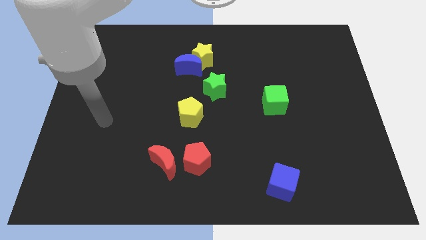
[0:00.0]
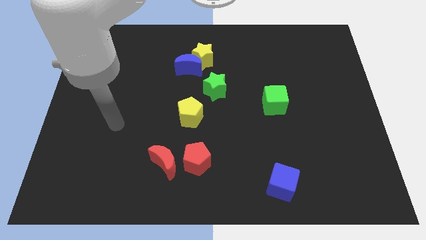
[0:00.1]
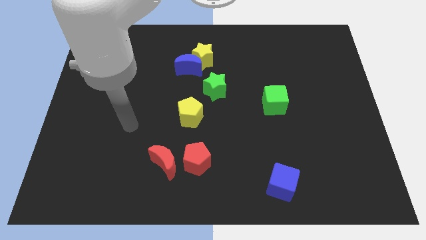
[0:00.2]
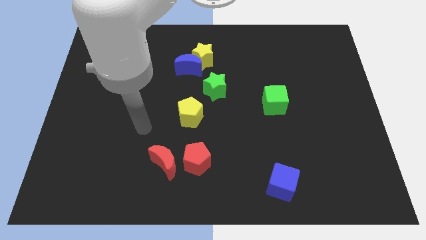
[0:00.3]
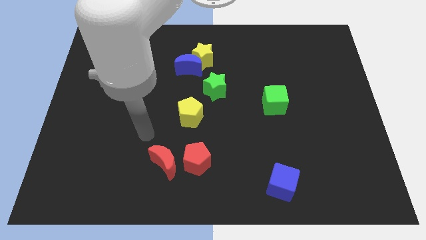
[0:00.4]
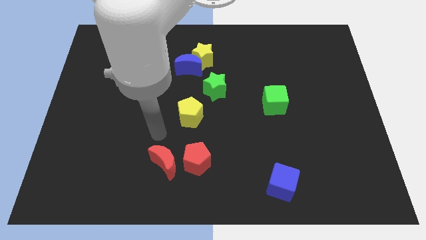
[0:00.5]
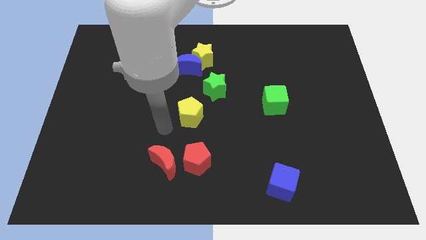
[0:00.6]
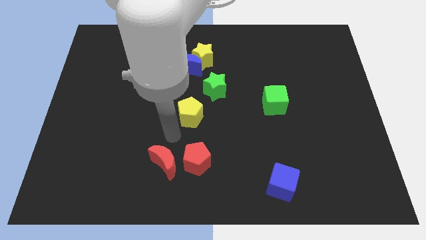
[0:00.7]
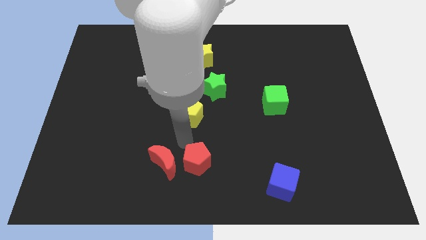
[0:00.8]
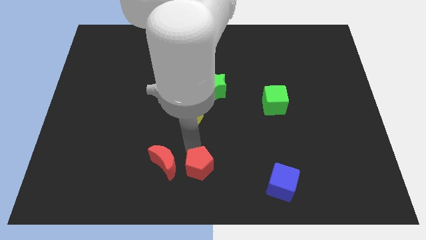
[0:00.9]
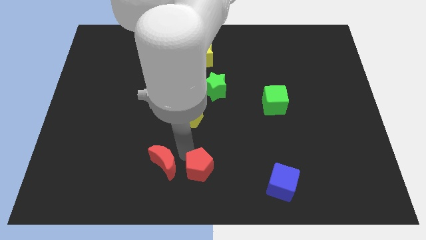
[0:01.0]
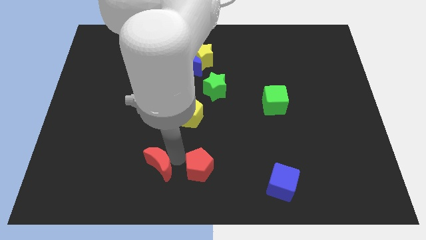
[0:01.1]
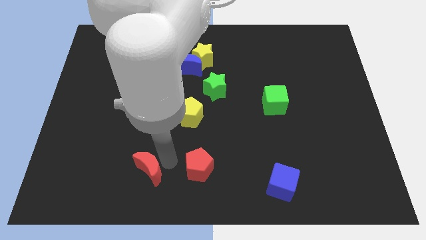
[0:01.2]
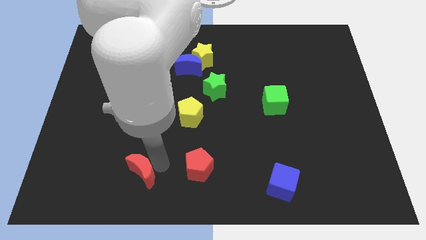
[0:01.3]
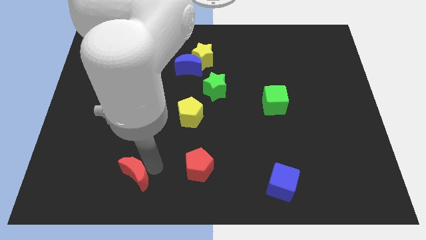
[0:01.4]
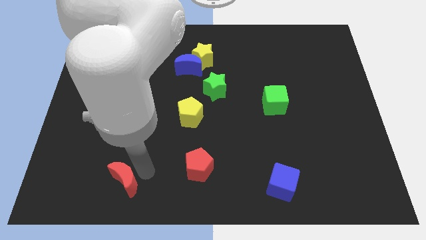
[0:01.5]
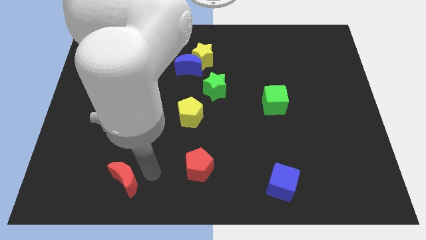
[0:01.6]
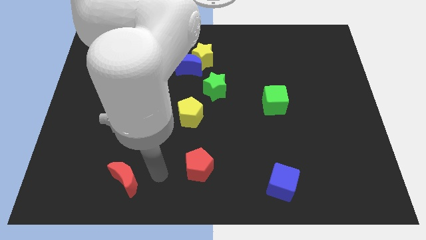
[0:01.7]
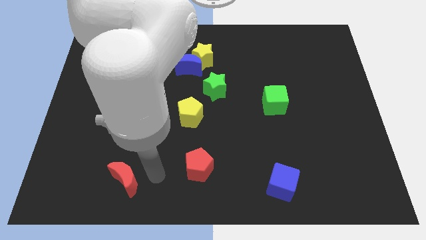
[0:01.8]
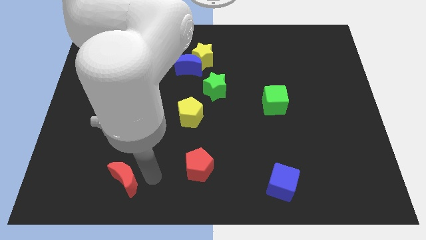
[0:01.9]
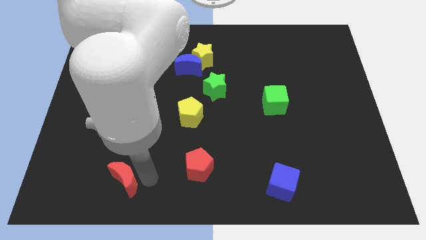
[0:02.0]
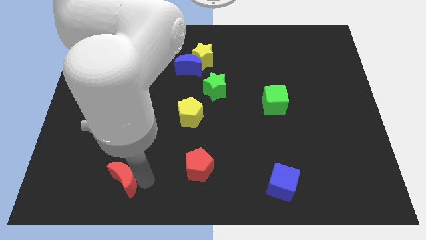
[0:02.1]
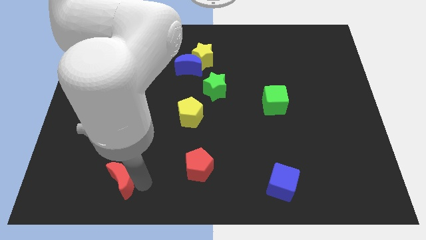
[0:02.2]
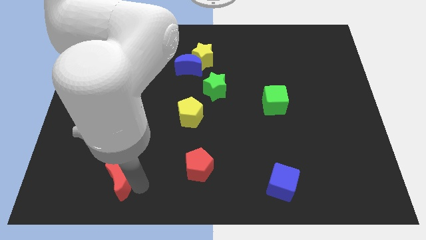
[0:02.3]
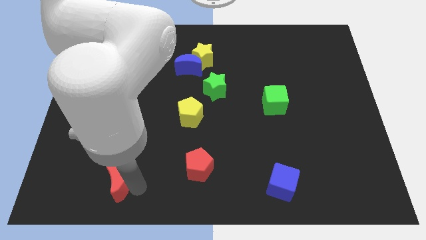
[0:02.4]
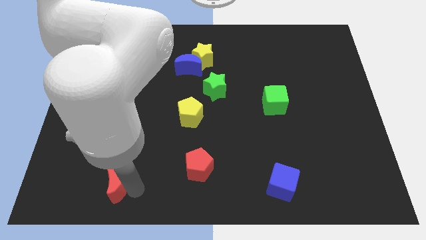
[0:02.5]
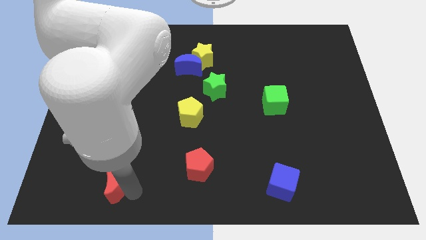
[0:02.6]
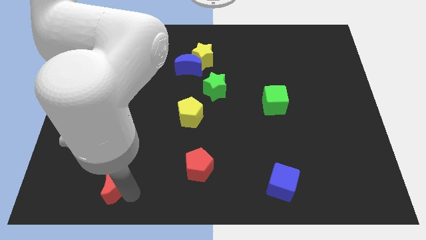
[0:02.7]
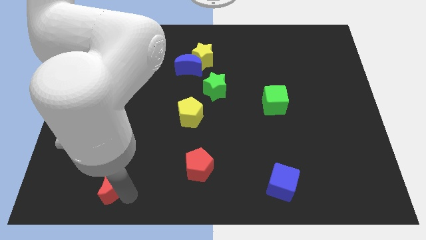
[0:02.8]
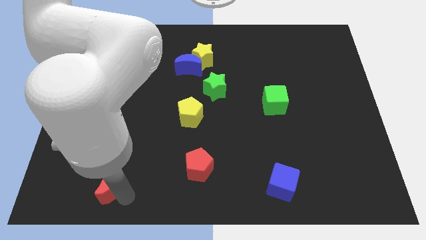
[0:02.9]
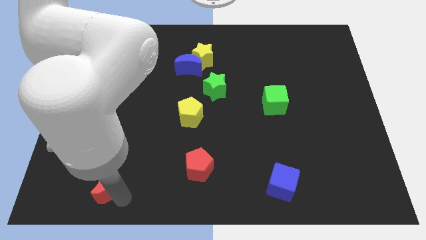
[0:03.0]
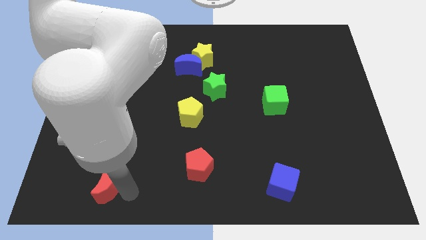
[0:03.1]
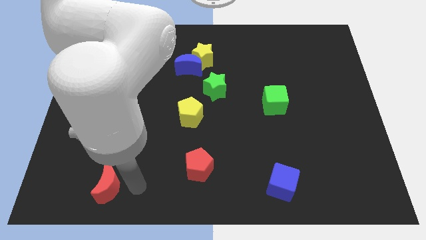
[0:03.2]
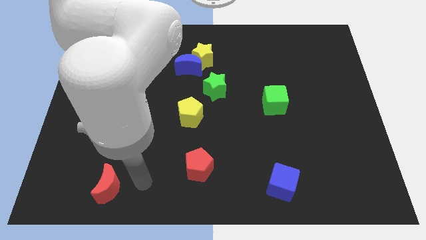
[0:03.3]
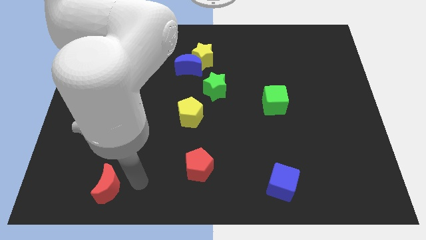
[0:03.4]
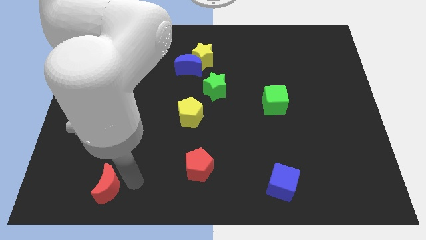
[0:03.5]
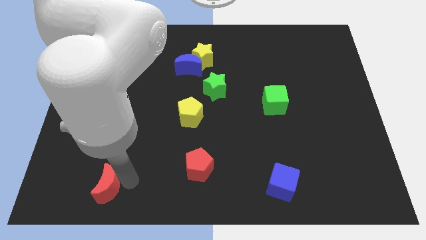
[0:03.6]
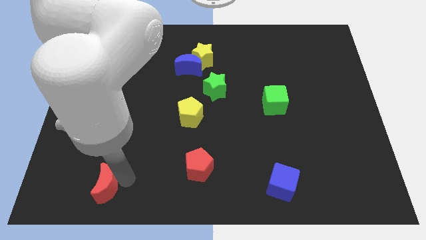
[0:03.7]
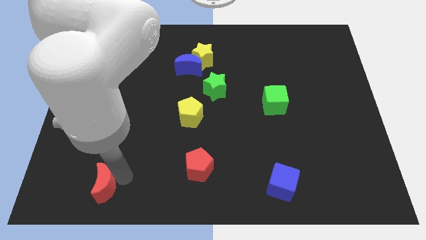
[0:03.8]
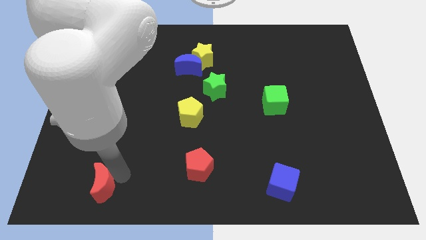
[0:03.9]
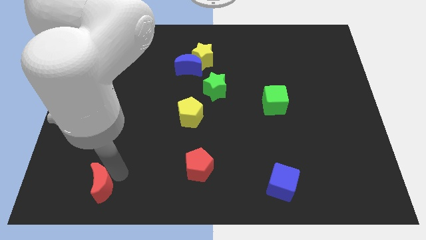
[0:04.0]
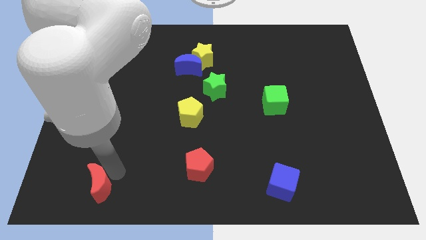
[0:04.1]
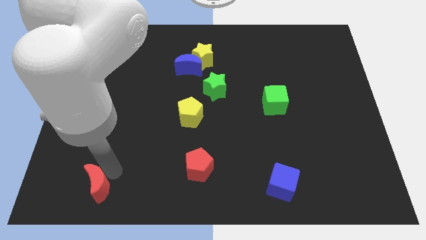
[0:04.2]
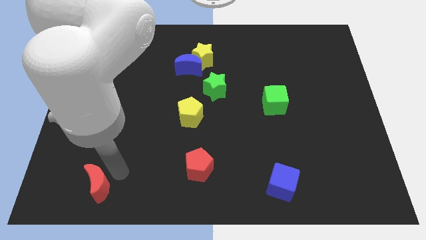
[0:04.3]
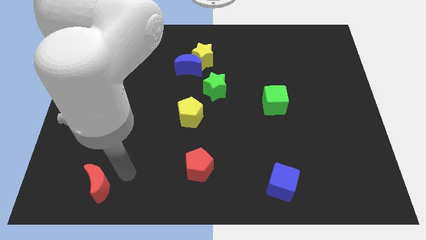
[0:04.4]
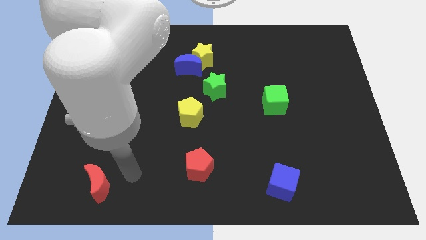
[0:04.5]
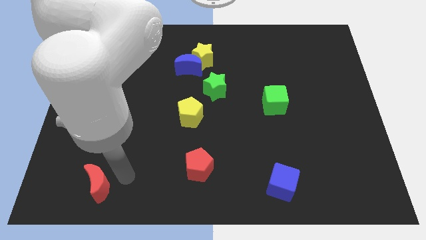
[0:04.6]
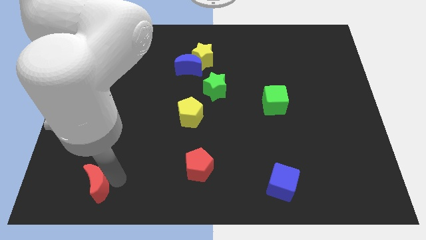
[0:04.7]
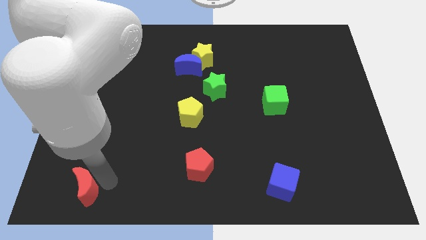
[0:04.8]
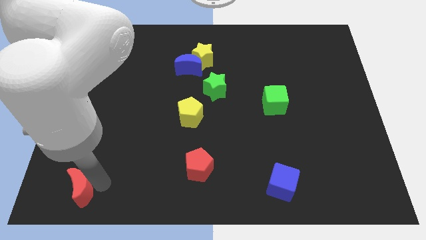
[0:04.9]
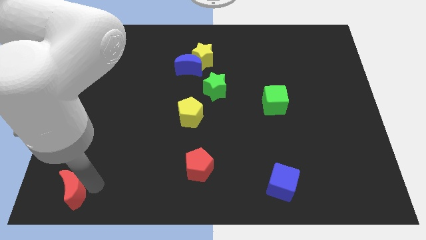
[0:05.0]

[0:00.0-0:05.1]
put the red moon to the bottom left corner
